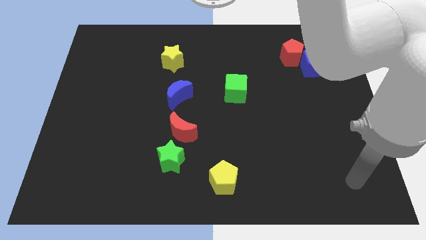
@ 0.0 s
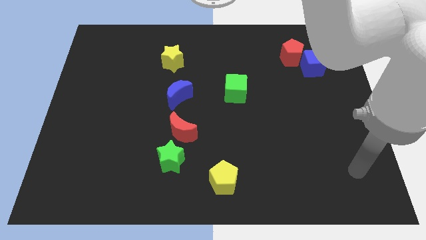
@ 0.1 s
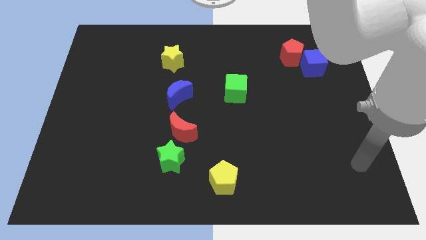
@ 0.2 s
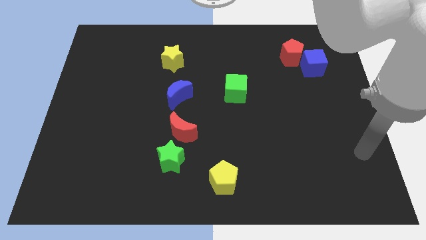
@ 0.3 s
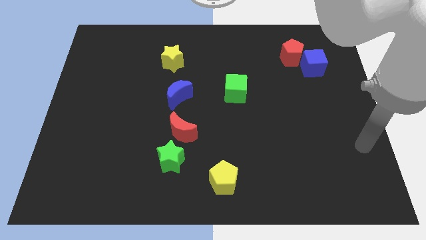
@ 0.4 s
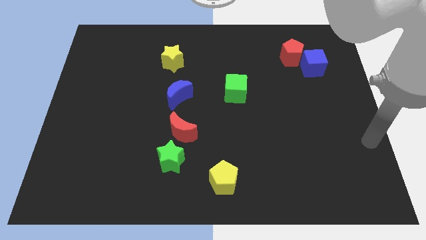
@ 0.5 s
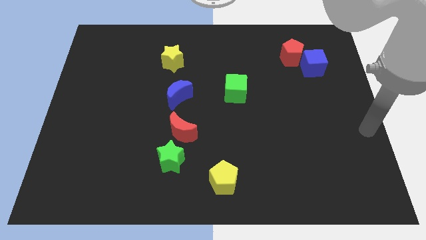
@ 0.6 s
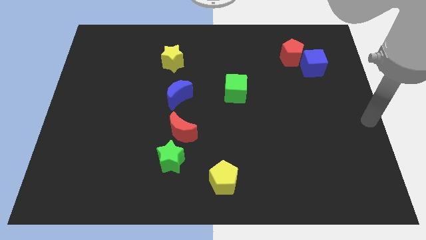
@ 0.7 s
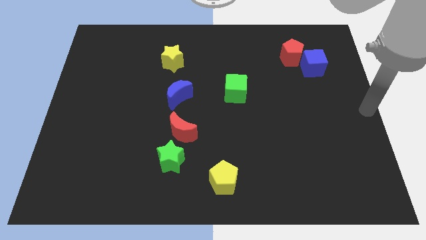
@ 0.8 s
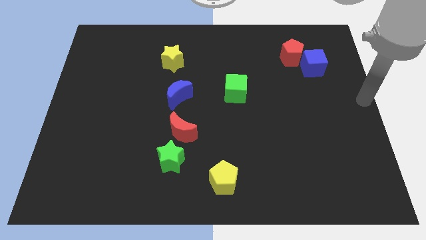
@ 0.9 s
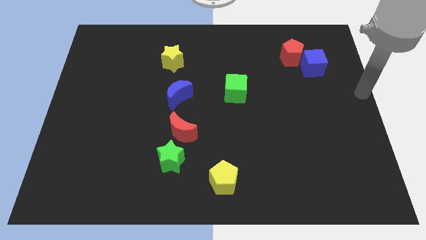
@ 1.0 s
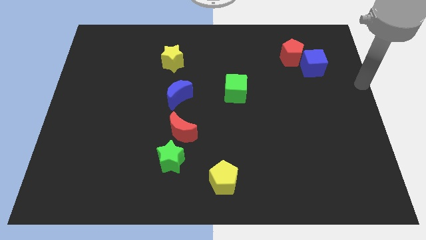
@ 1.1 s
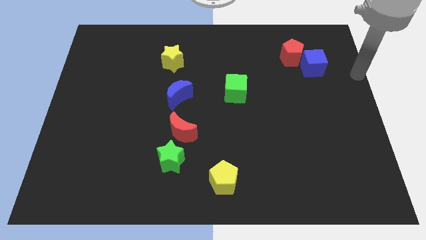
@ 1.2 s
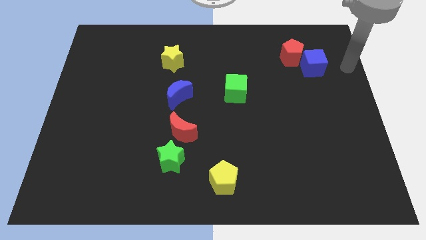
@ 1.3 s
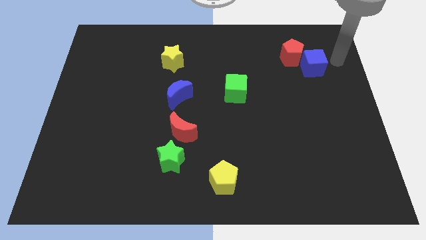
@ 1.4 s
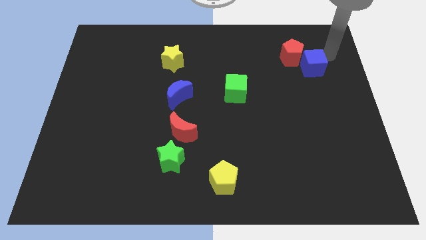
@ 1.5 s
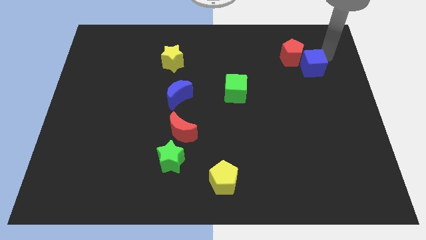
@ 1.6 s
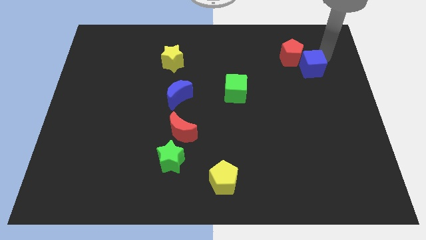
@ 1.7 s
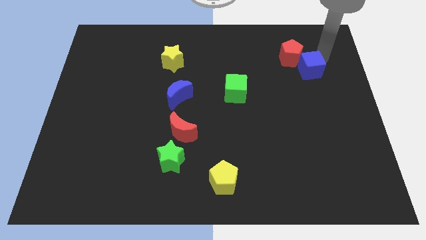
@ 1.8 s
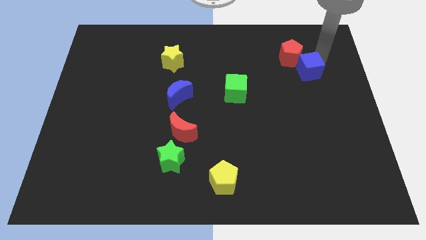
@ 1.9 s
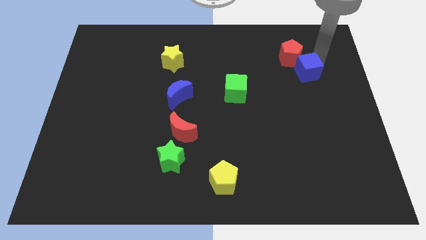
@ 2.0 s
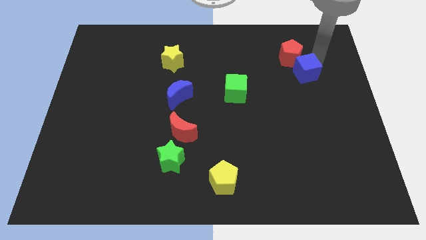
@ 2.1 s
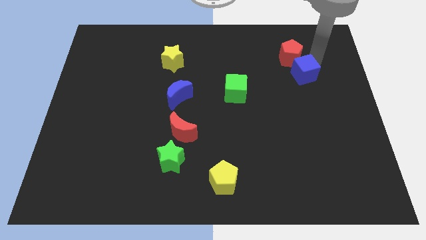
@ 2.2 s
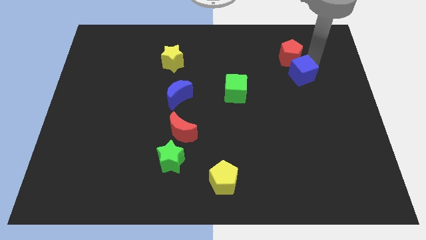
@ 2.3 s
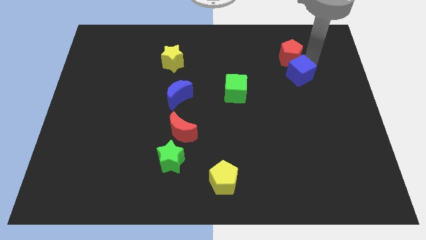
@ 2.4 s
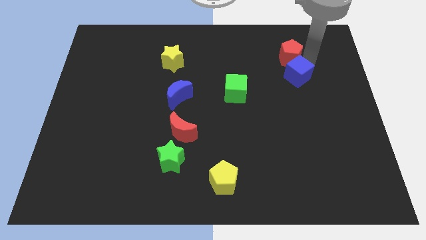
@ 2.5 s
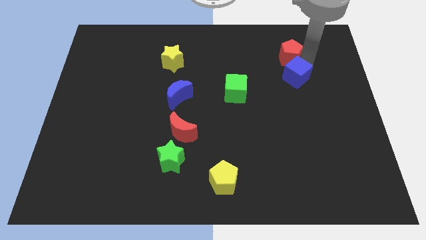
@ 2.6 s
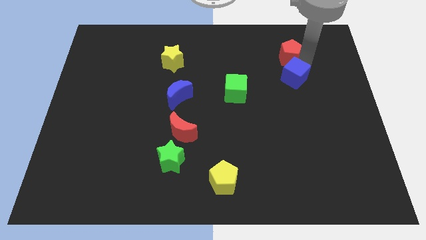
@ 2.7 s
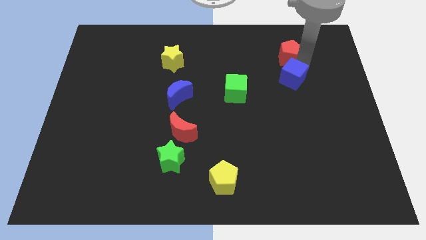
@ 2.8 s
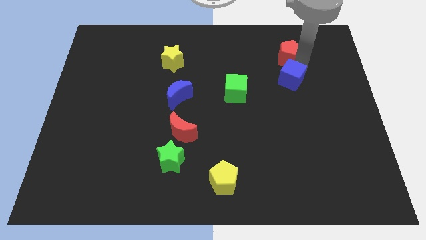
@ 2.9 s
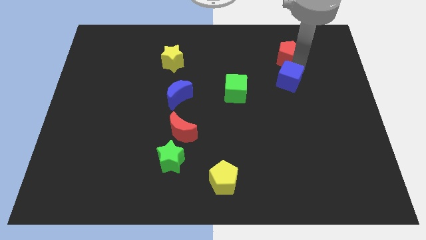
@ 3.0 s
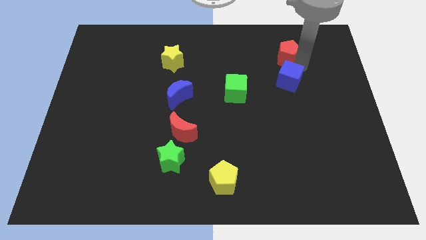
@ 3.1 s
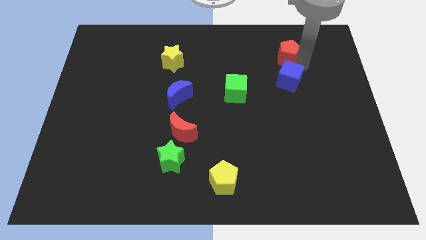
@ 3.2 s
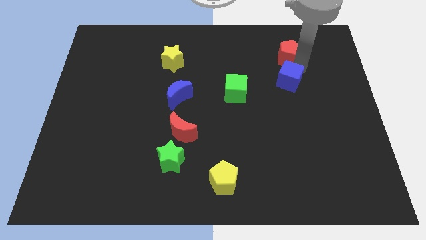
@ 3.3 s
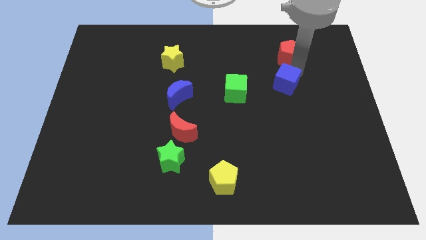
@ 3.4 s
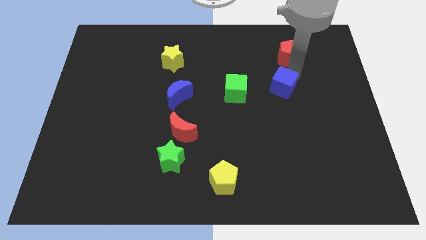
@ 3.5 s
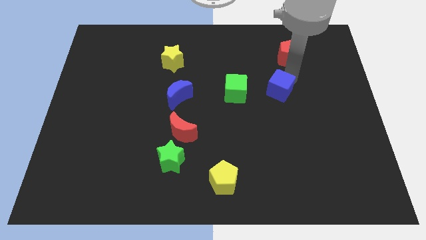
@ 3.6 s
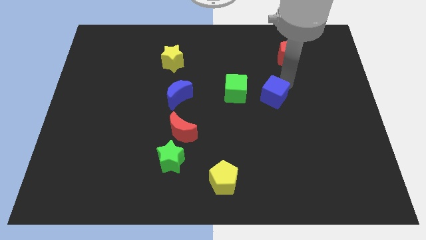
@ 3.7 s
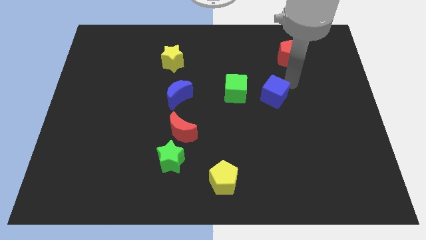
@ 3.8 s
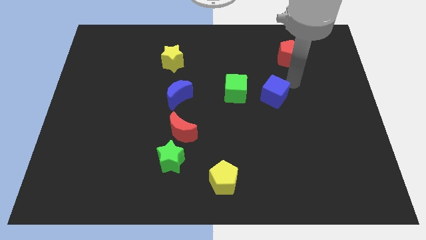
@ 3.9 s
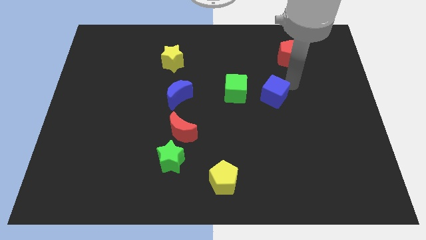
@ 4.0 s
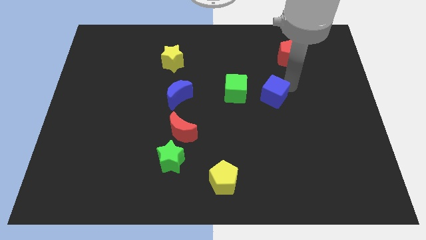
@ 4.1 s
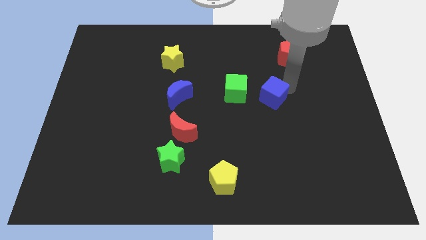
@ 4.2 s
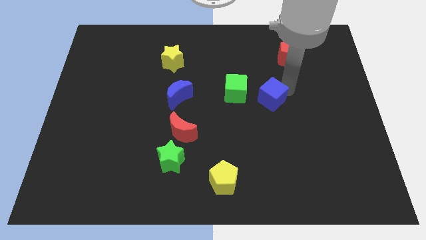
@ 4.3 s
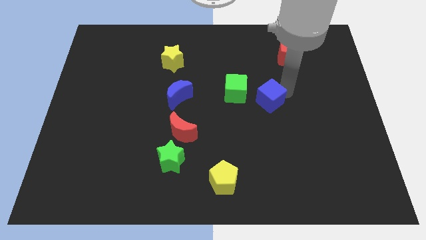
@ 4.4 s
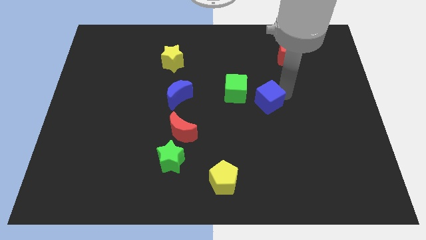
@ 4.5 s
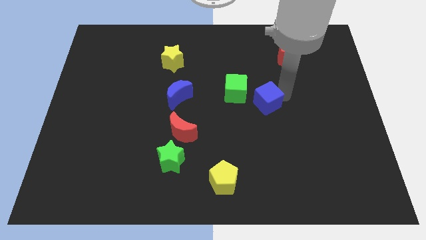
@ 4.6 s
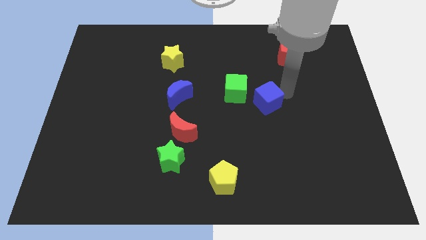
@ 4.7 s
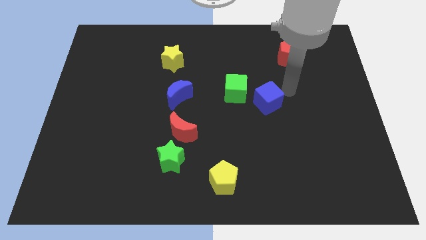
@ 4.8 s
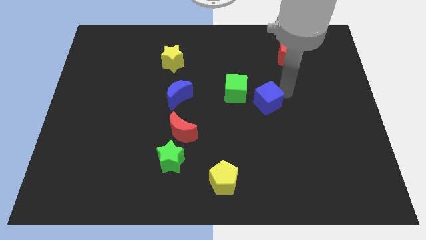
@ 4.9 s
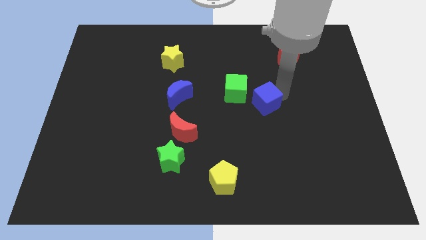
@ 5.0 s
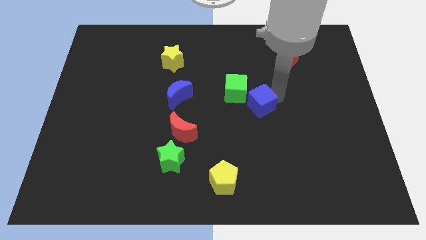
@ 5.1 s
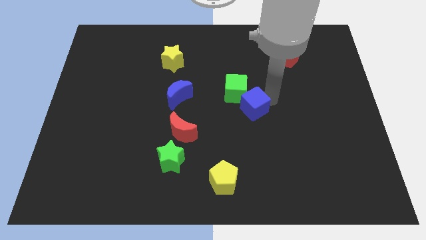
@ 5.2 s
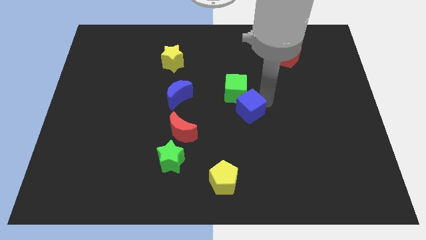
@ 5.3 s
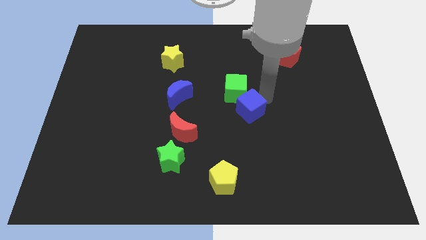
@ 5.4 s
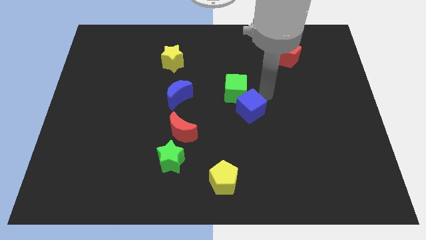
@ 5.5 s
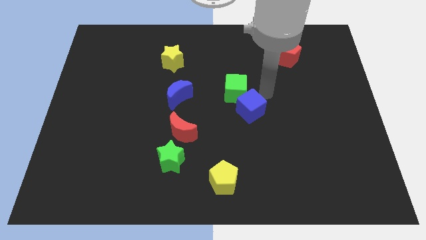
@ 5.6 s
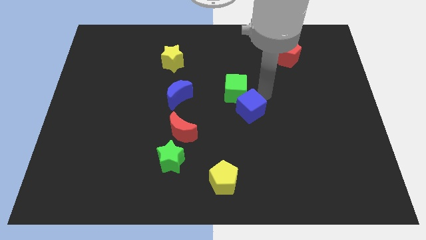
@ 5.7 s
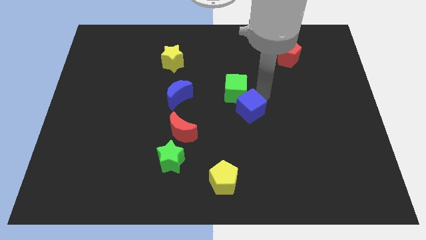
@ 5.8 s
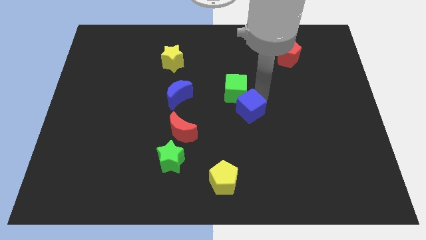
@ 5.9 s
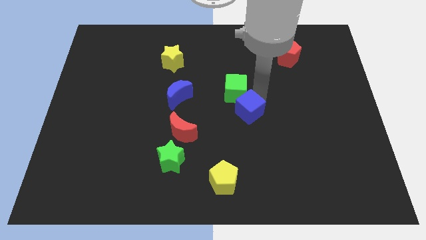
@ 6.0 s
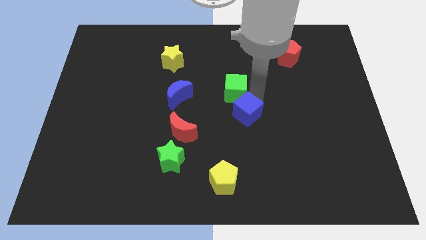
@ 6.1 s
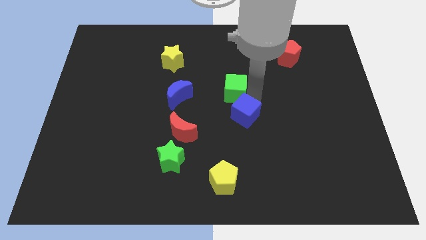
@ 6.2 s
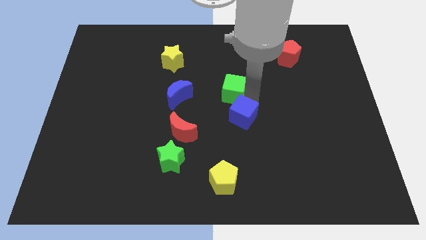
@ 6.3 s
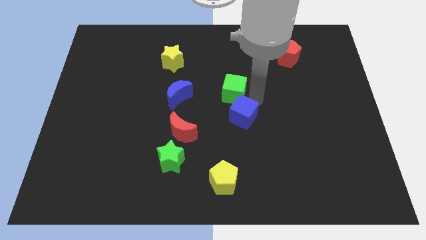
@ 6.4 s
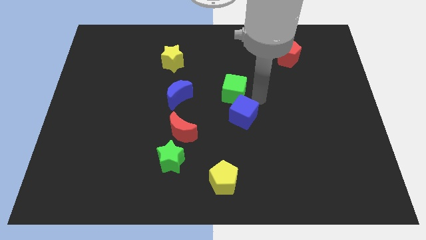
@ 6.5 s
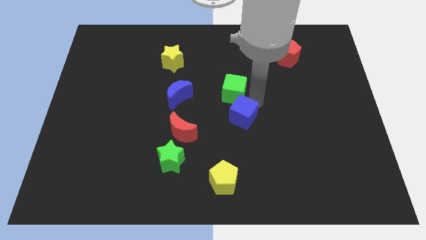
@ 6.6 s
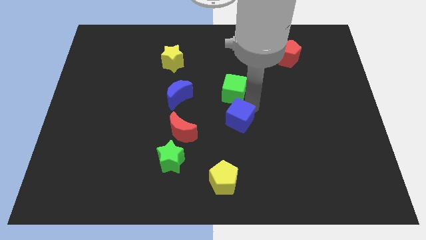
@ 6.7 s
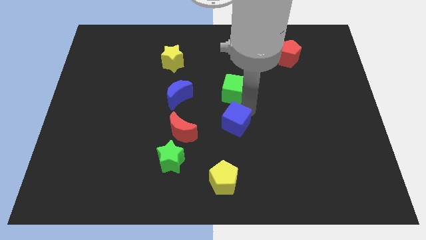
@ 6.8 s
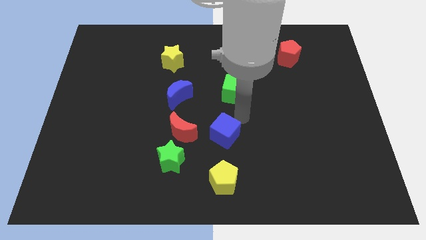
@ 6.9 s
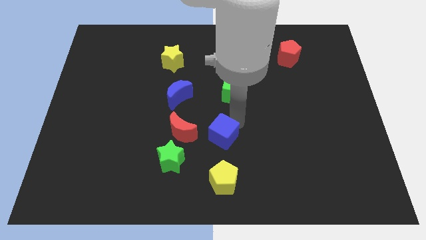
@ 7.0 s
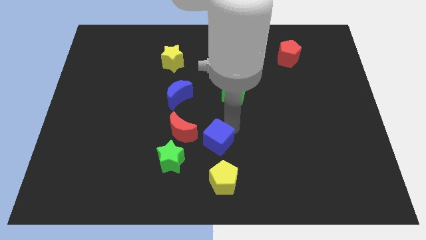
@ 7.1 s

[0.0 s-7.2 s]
slide the blue cube to the bottom right side of the red moon

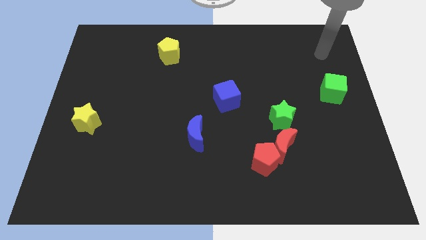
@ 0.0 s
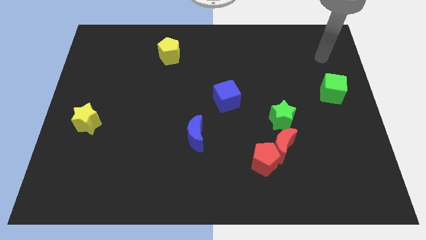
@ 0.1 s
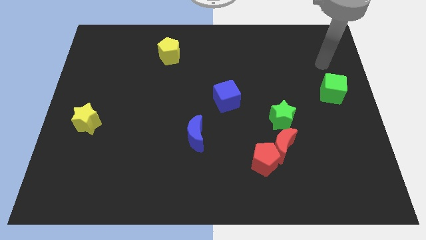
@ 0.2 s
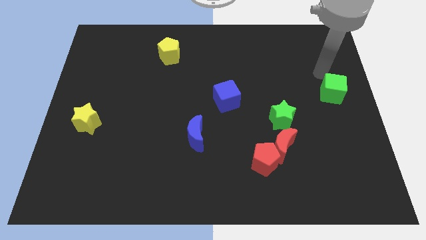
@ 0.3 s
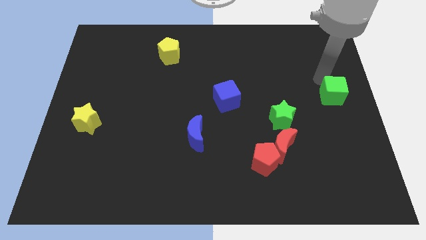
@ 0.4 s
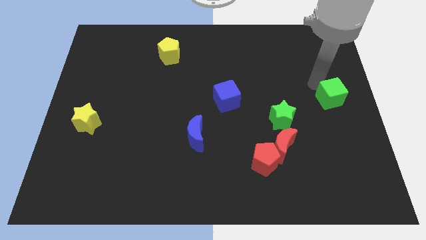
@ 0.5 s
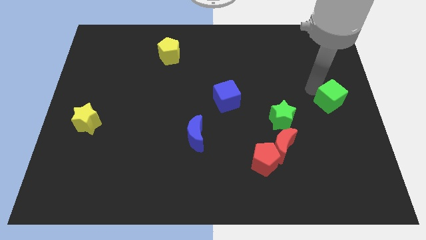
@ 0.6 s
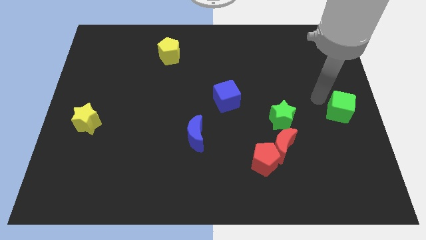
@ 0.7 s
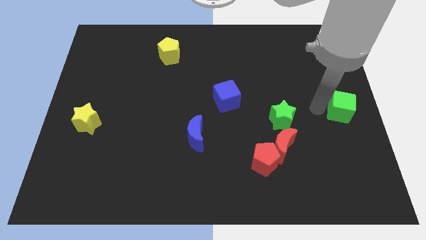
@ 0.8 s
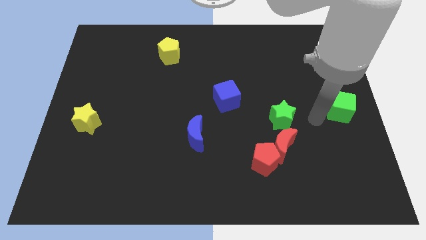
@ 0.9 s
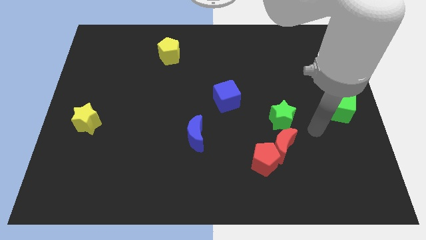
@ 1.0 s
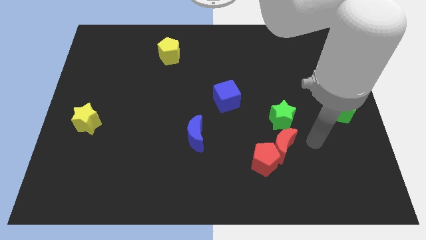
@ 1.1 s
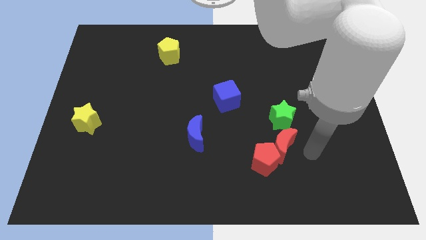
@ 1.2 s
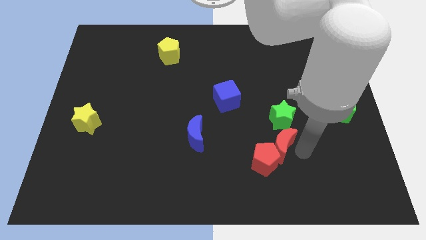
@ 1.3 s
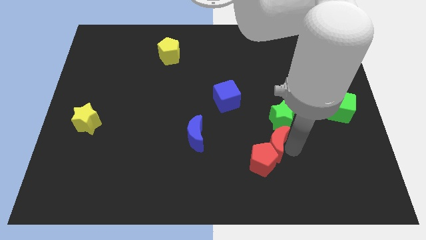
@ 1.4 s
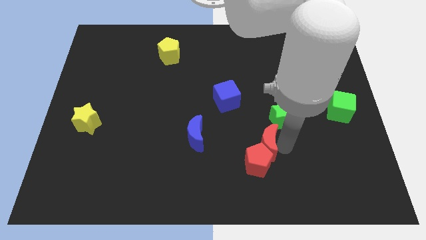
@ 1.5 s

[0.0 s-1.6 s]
move the red moon to the right side of the blue moon
